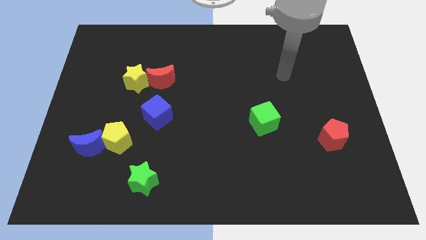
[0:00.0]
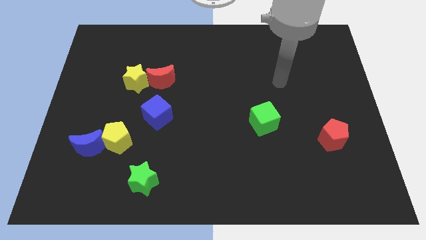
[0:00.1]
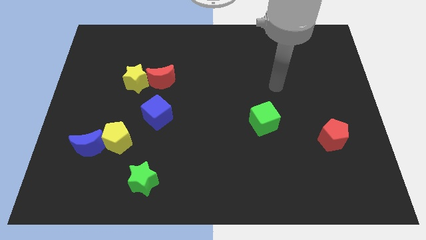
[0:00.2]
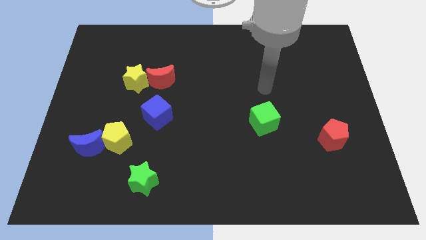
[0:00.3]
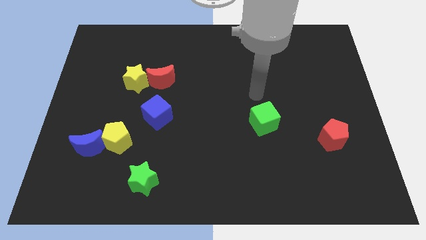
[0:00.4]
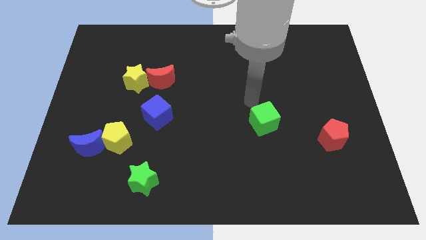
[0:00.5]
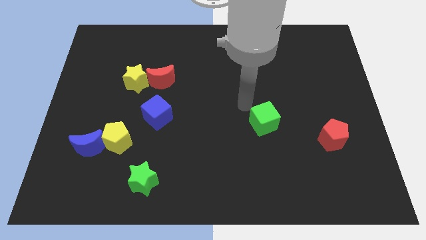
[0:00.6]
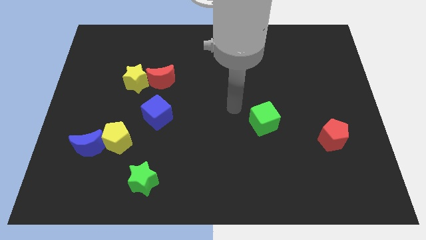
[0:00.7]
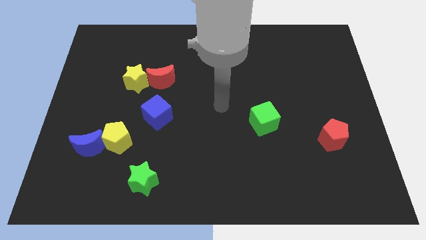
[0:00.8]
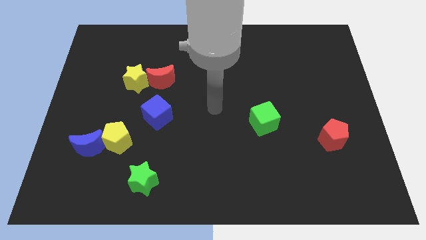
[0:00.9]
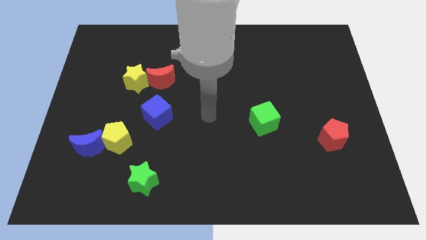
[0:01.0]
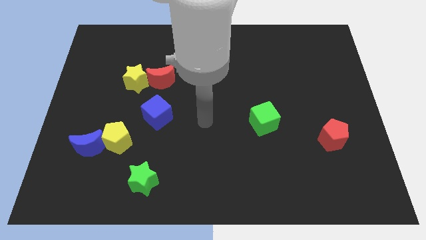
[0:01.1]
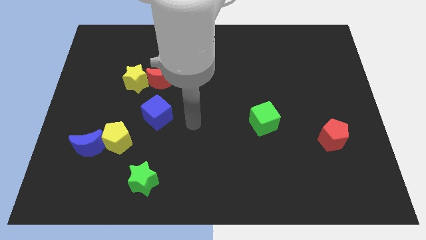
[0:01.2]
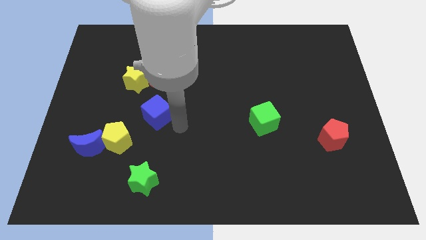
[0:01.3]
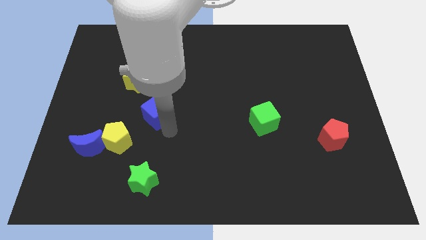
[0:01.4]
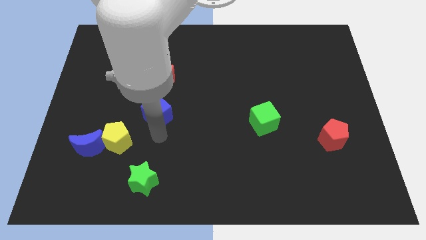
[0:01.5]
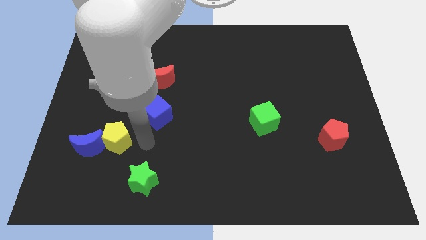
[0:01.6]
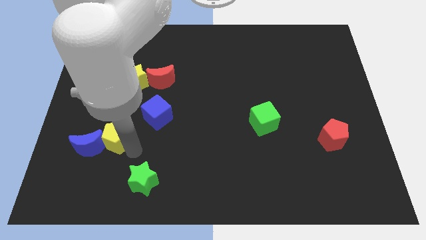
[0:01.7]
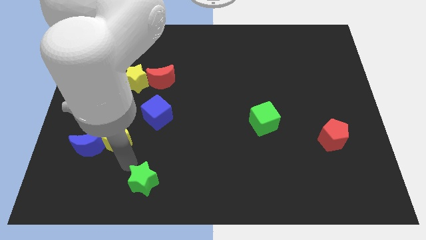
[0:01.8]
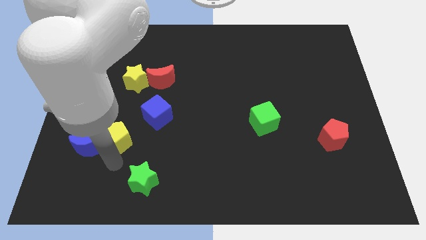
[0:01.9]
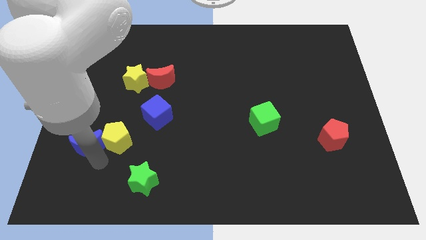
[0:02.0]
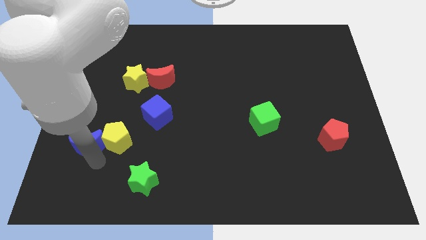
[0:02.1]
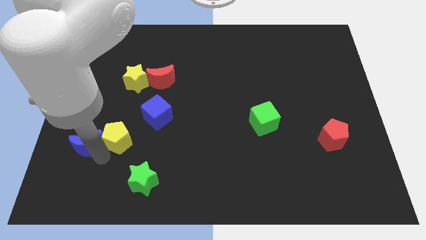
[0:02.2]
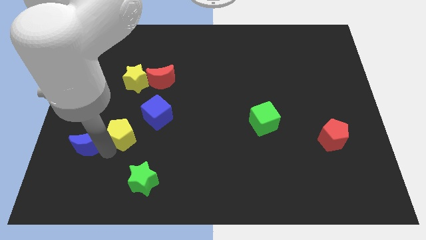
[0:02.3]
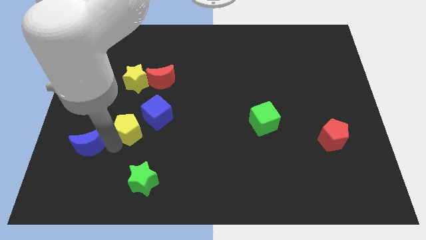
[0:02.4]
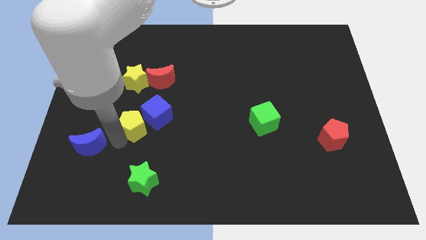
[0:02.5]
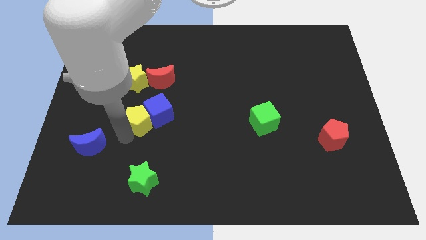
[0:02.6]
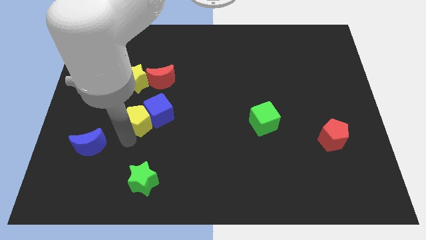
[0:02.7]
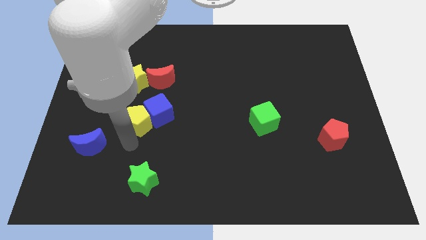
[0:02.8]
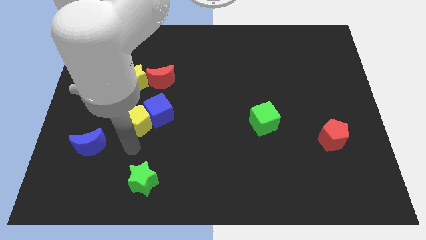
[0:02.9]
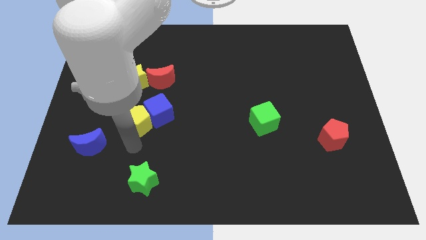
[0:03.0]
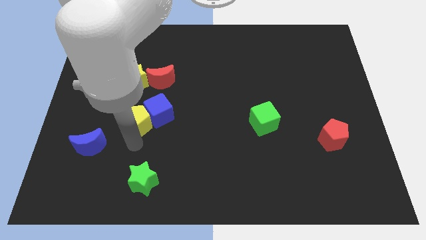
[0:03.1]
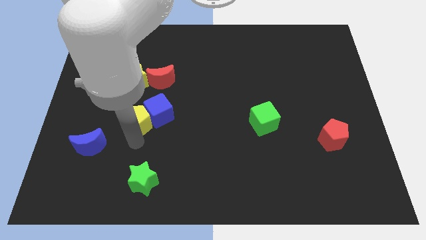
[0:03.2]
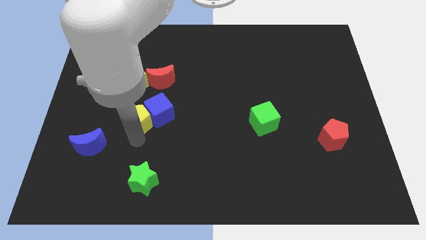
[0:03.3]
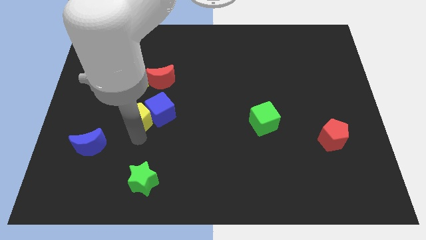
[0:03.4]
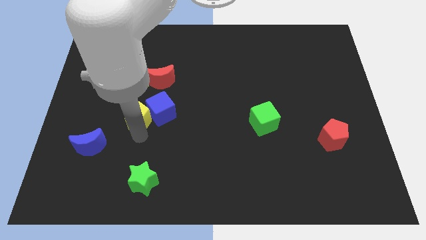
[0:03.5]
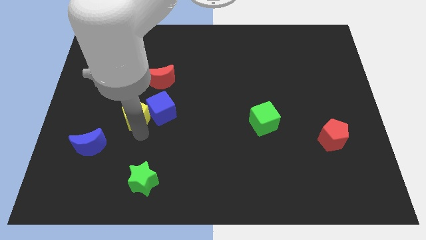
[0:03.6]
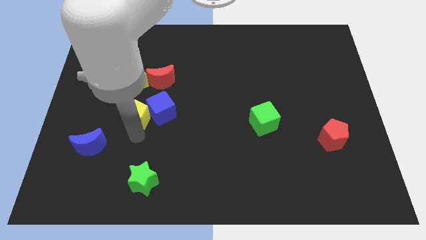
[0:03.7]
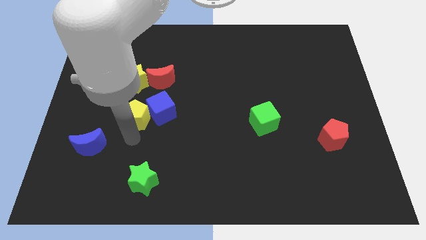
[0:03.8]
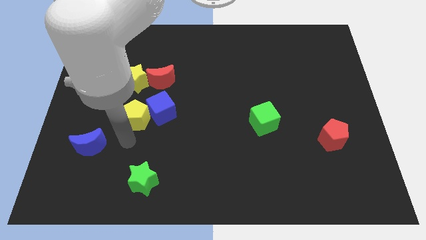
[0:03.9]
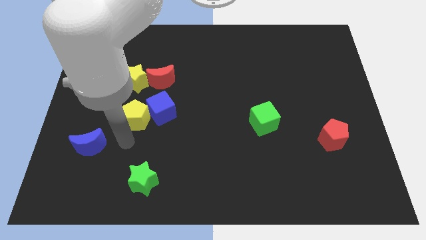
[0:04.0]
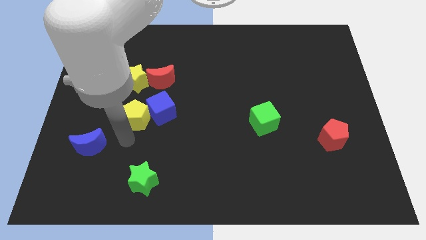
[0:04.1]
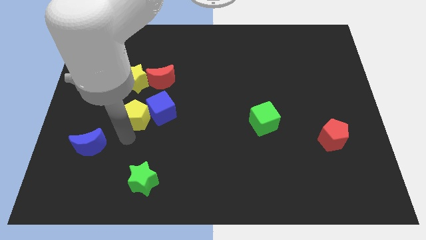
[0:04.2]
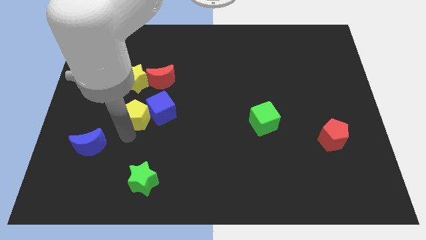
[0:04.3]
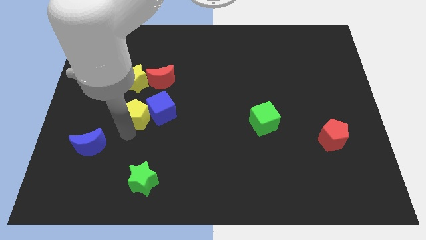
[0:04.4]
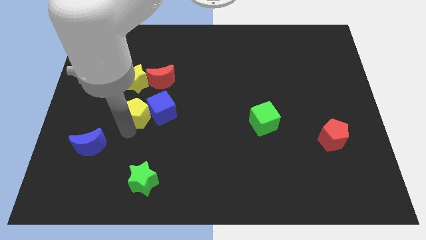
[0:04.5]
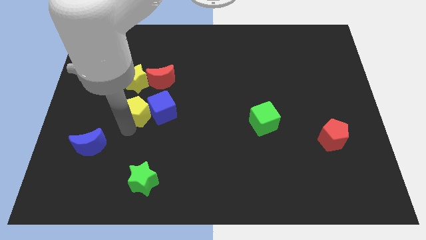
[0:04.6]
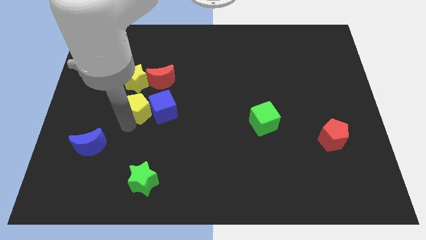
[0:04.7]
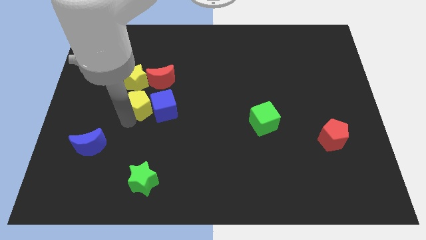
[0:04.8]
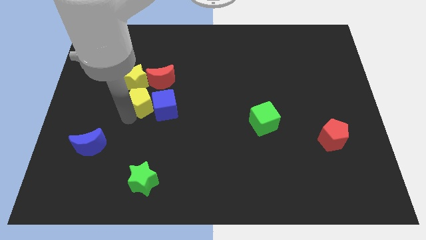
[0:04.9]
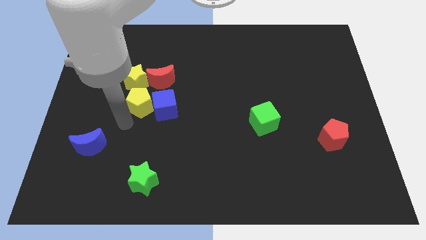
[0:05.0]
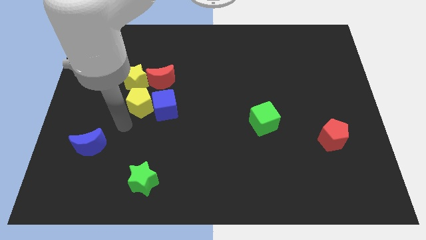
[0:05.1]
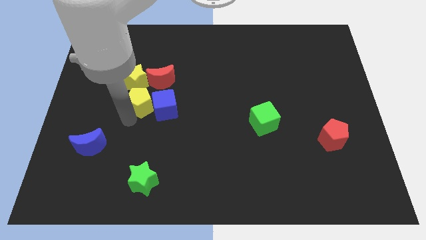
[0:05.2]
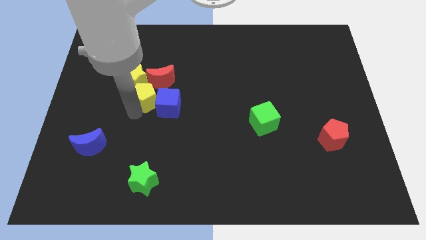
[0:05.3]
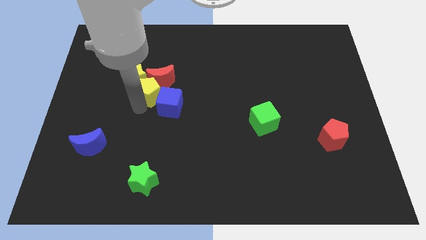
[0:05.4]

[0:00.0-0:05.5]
slide the yellow pentagon close to the red moon

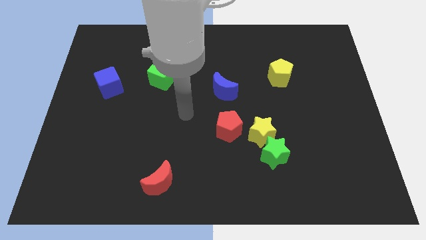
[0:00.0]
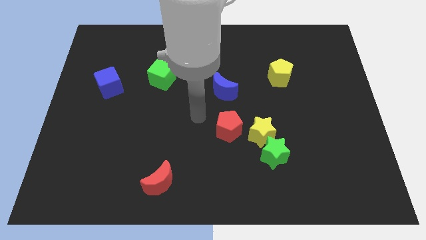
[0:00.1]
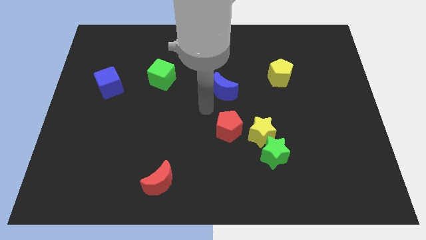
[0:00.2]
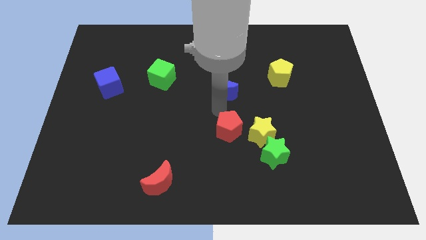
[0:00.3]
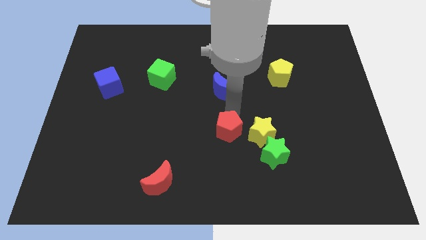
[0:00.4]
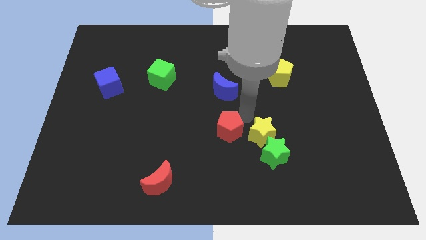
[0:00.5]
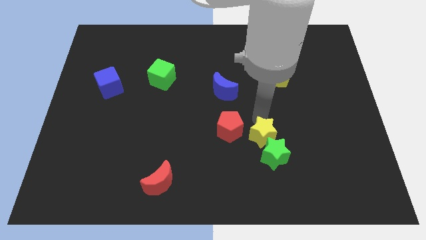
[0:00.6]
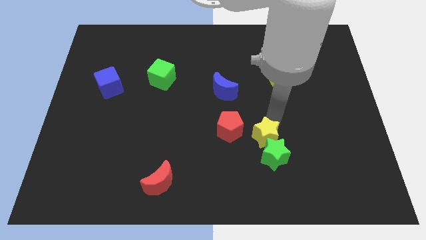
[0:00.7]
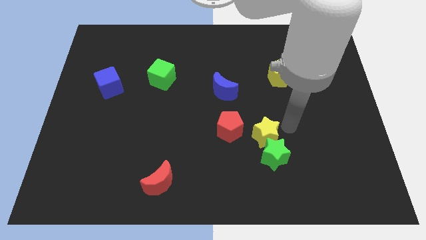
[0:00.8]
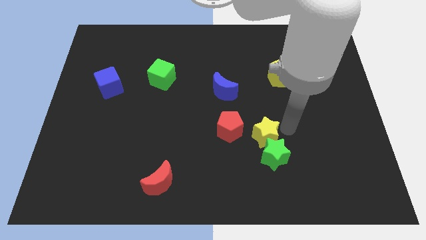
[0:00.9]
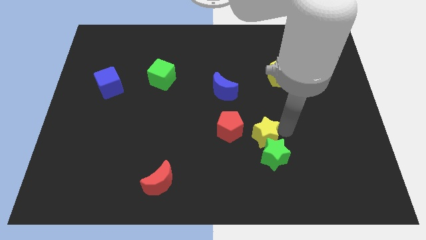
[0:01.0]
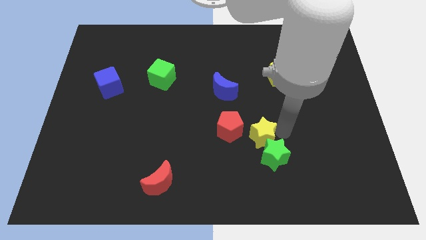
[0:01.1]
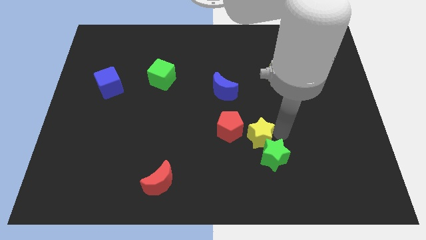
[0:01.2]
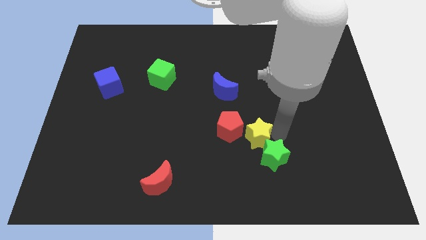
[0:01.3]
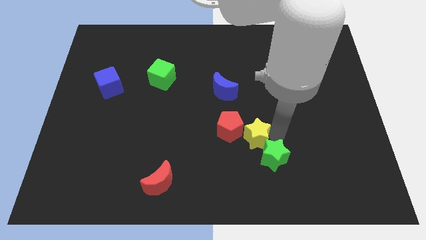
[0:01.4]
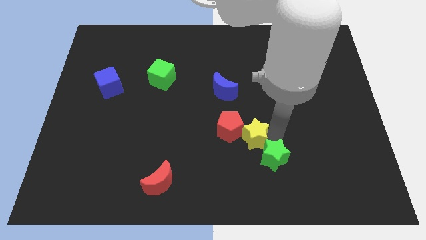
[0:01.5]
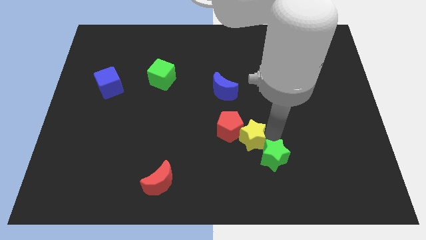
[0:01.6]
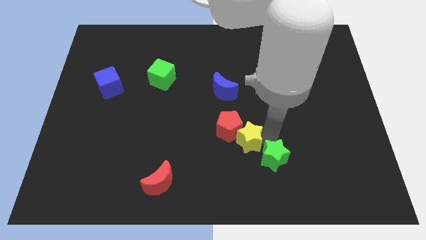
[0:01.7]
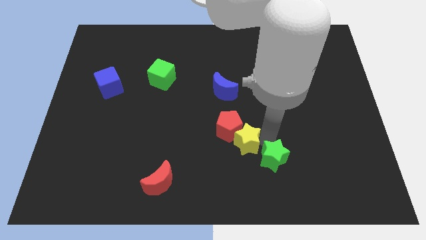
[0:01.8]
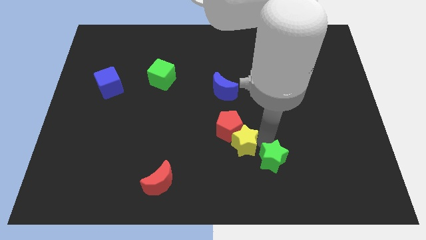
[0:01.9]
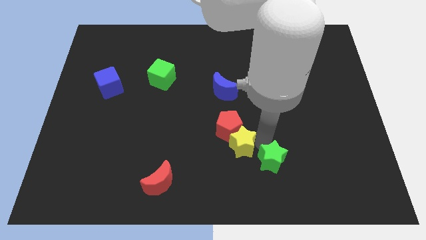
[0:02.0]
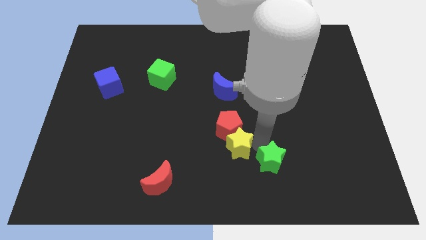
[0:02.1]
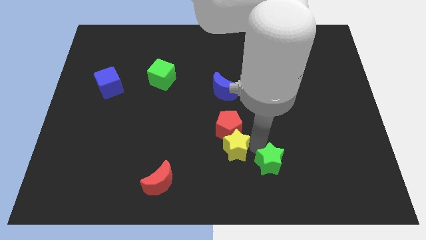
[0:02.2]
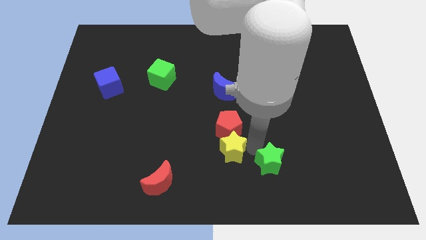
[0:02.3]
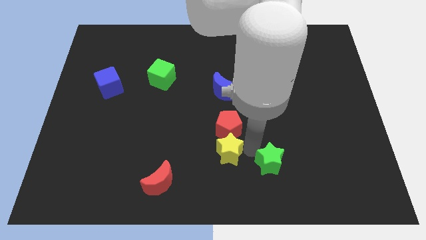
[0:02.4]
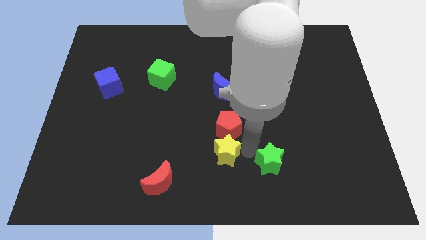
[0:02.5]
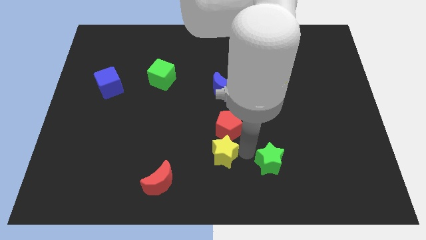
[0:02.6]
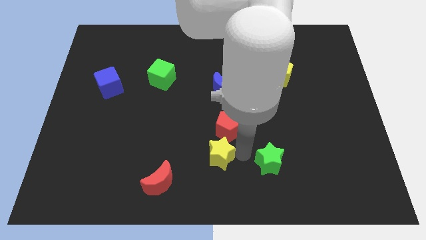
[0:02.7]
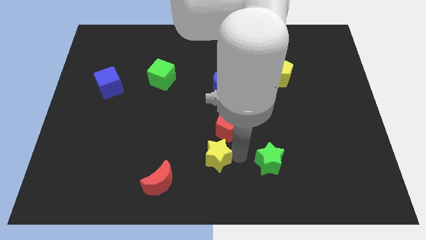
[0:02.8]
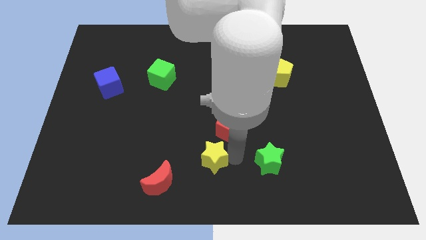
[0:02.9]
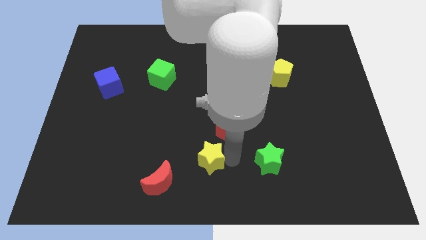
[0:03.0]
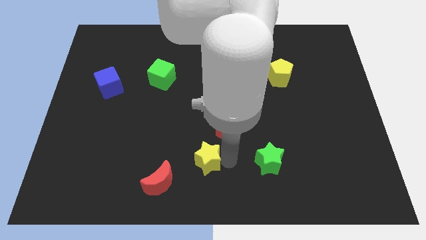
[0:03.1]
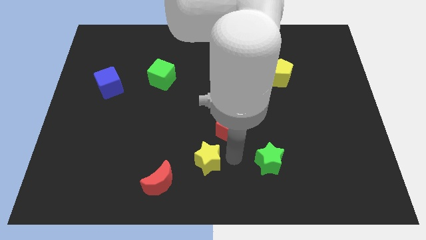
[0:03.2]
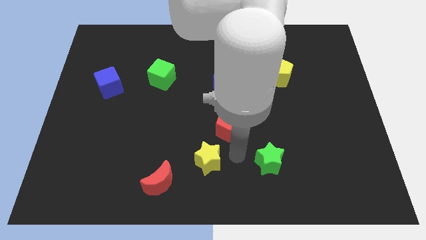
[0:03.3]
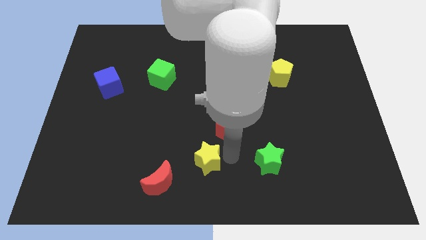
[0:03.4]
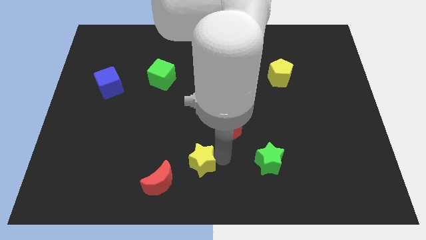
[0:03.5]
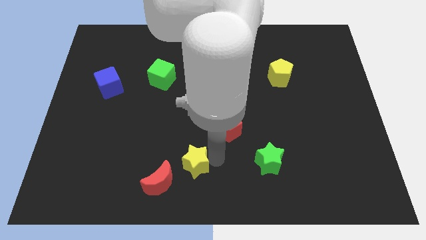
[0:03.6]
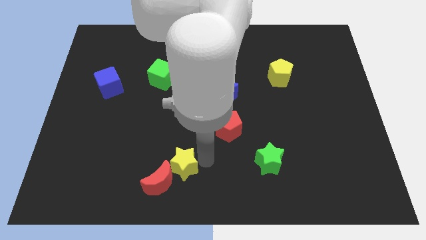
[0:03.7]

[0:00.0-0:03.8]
put the yellow star towards the red moon
